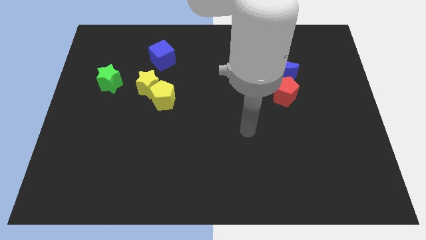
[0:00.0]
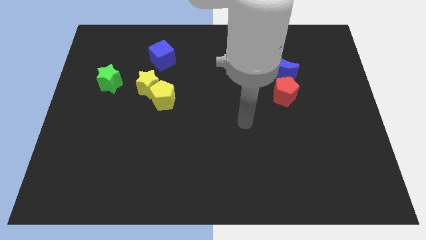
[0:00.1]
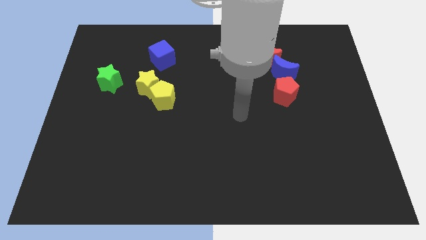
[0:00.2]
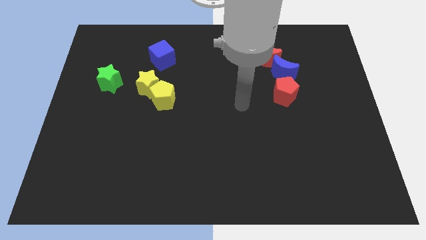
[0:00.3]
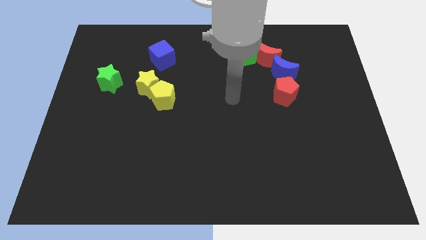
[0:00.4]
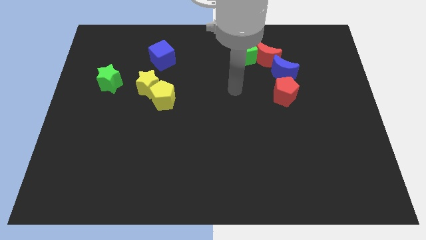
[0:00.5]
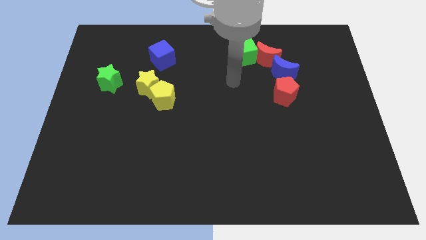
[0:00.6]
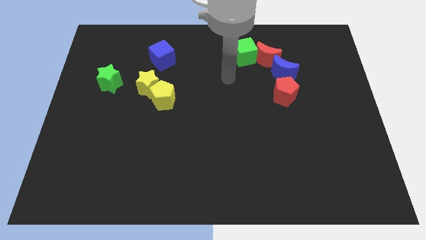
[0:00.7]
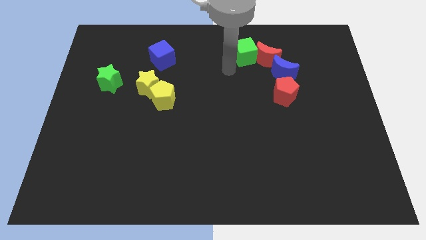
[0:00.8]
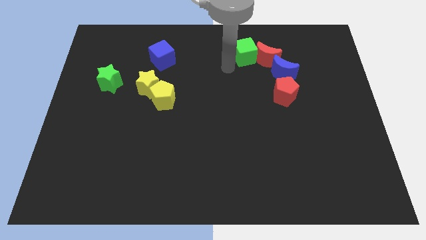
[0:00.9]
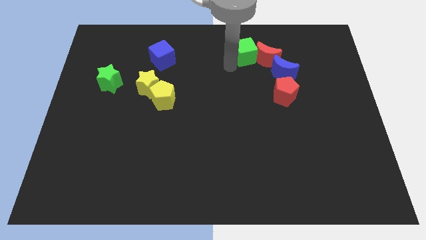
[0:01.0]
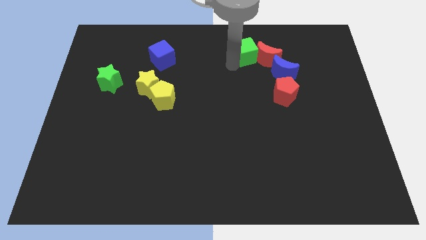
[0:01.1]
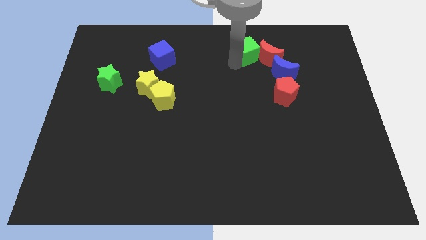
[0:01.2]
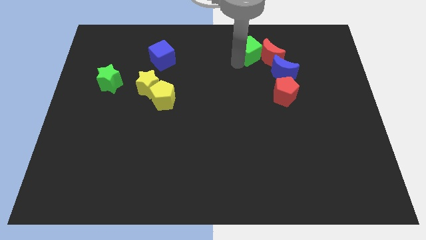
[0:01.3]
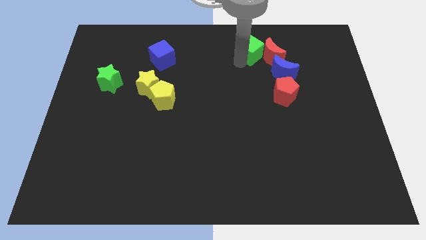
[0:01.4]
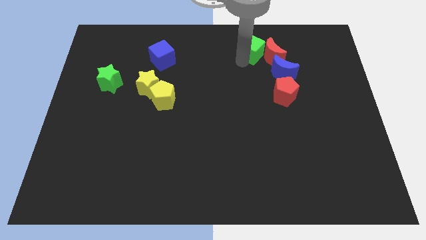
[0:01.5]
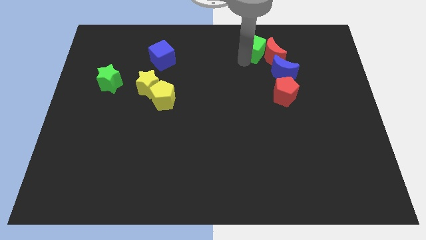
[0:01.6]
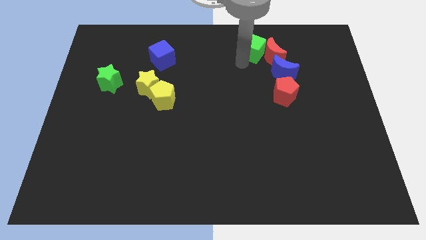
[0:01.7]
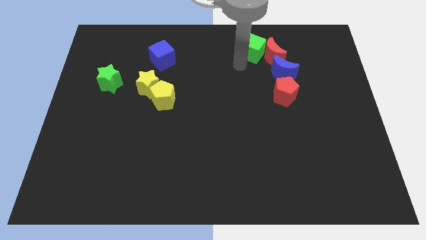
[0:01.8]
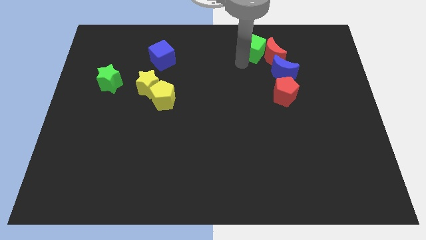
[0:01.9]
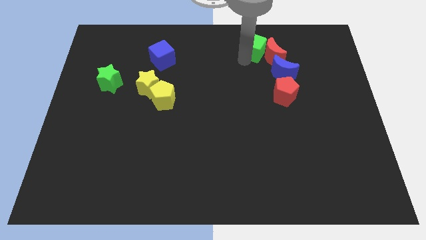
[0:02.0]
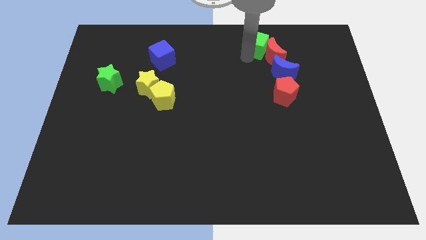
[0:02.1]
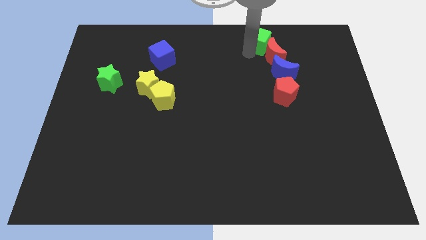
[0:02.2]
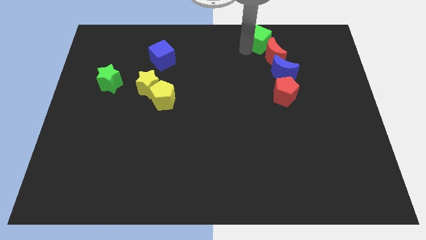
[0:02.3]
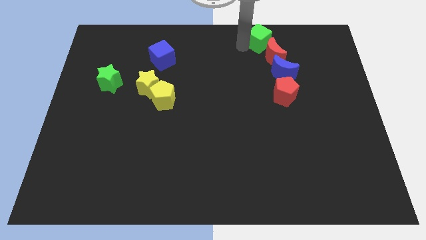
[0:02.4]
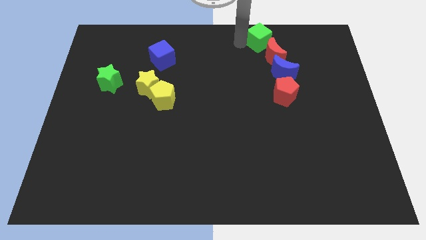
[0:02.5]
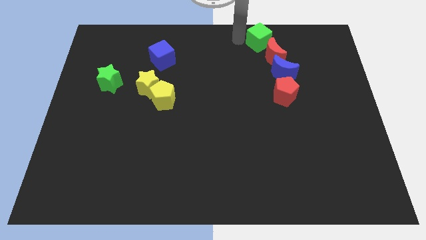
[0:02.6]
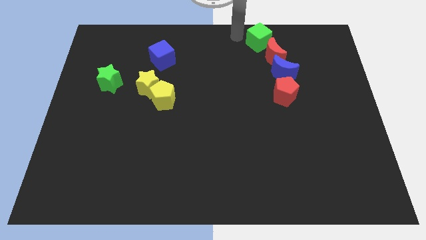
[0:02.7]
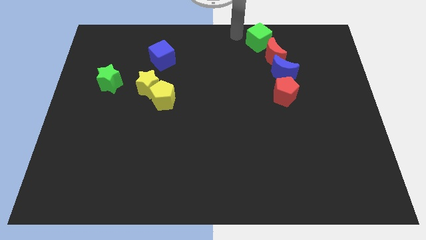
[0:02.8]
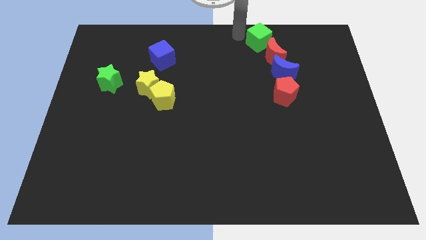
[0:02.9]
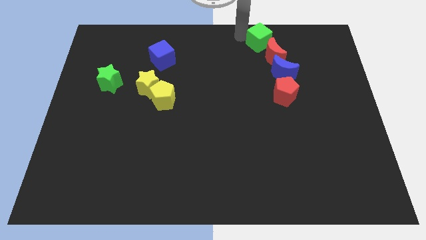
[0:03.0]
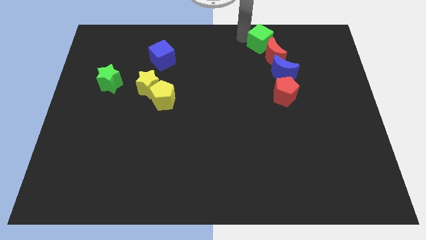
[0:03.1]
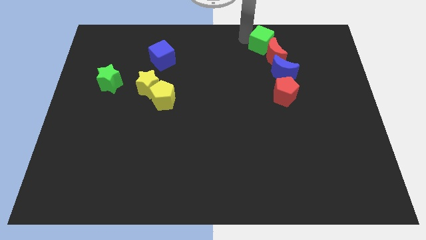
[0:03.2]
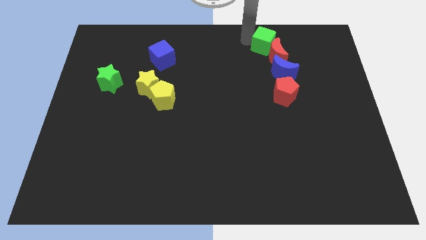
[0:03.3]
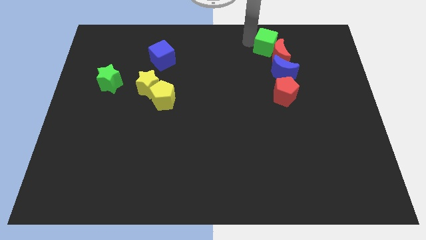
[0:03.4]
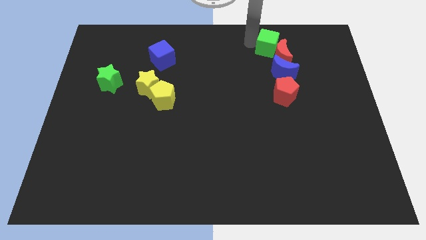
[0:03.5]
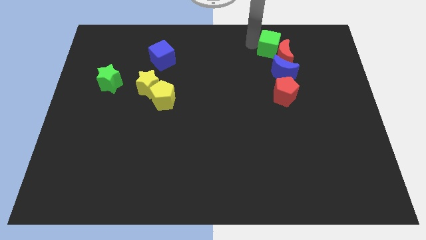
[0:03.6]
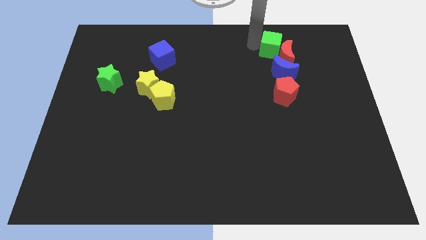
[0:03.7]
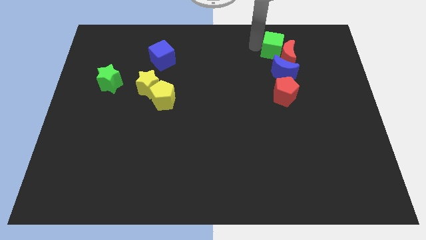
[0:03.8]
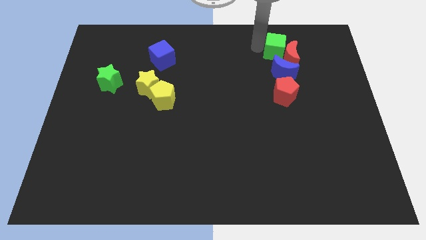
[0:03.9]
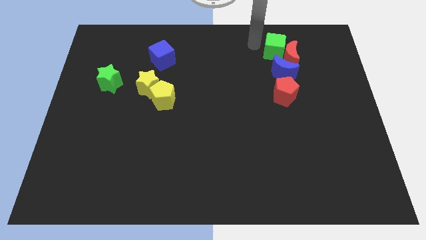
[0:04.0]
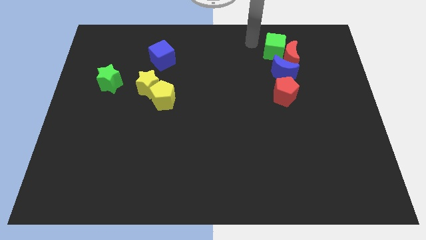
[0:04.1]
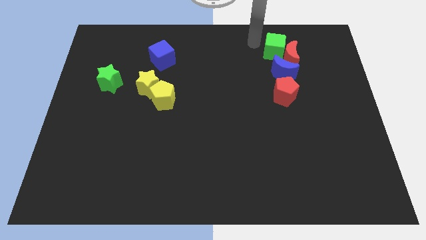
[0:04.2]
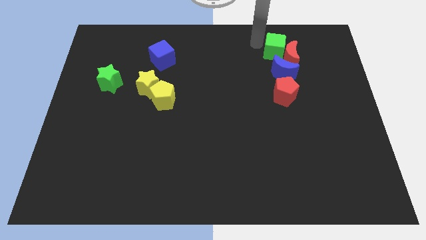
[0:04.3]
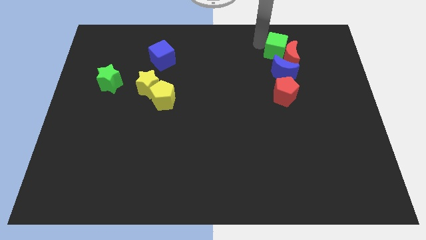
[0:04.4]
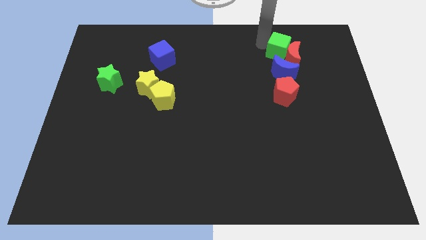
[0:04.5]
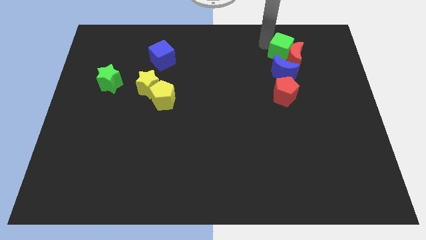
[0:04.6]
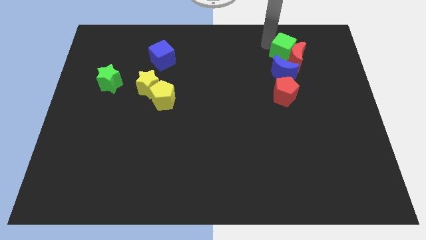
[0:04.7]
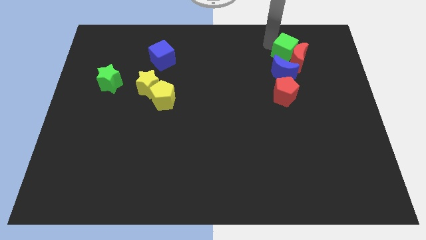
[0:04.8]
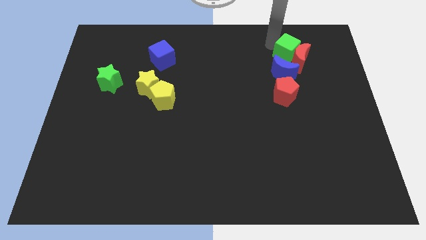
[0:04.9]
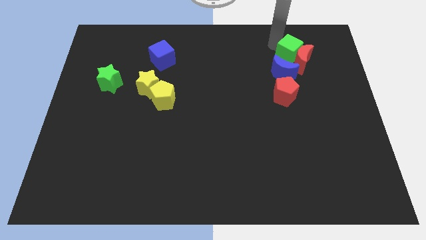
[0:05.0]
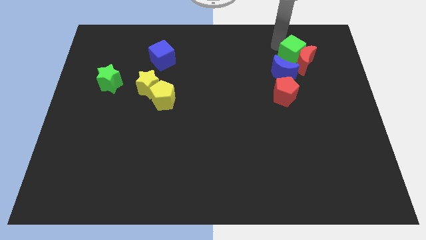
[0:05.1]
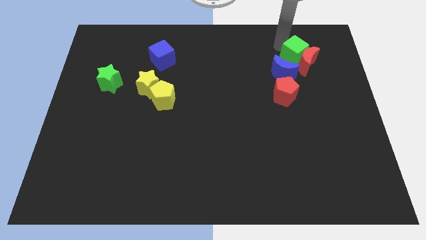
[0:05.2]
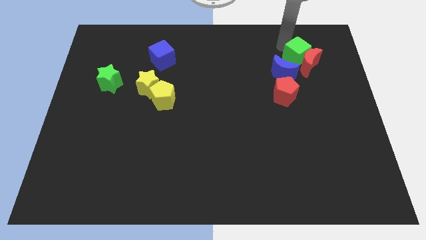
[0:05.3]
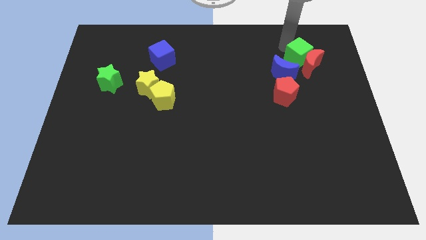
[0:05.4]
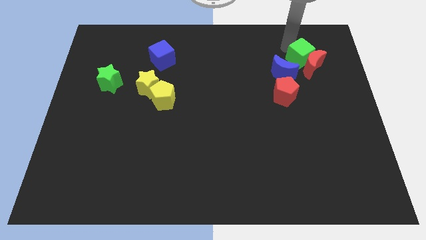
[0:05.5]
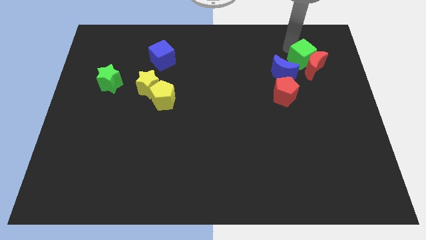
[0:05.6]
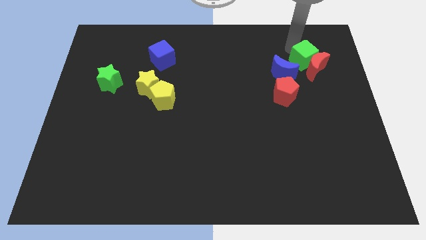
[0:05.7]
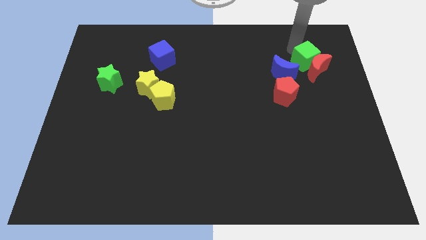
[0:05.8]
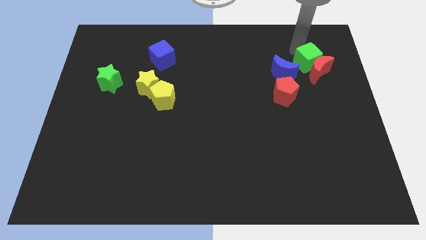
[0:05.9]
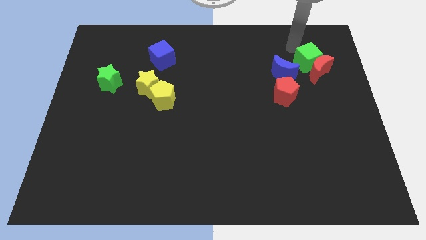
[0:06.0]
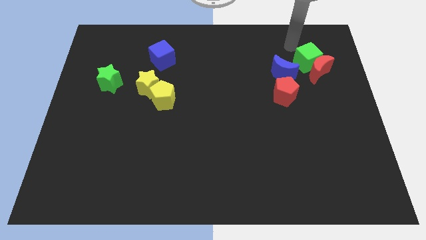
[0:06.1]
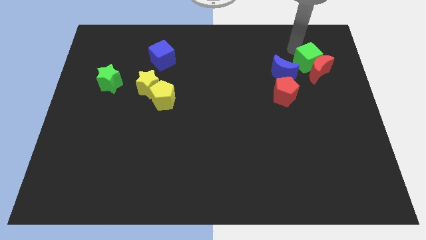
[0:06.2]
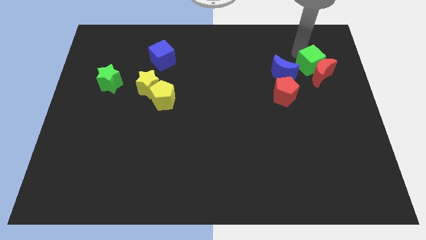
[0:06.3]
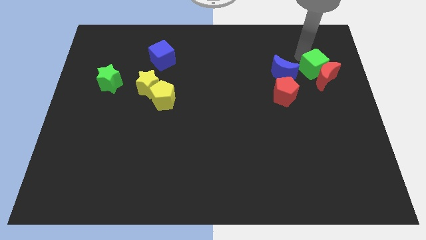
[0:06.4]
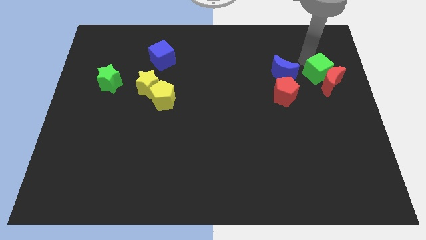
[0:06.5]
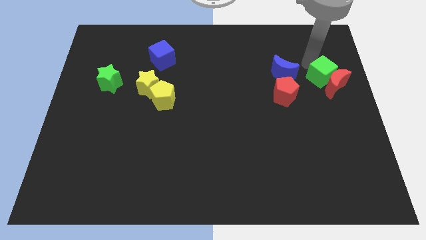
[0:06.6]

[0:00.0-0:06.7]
slide the green cube to the right side of the board

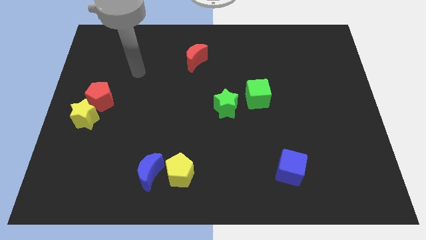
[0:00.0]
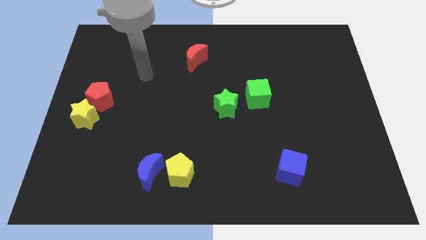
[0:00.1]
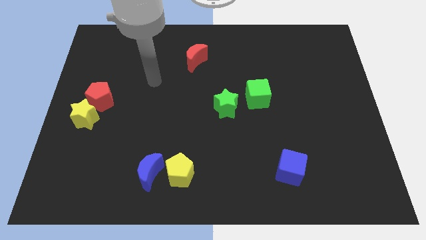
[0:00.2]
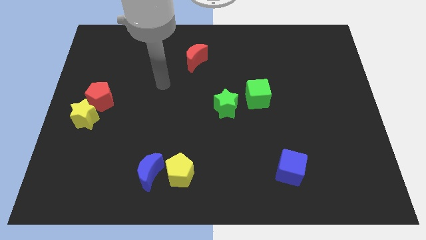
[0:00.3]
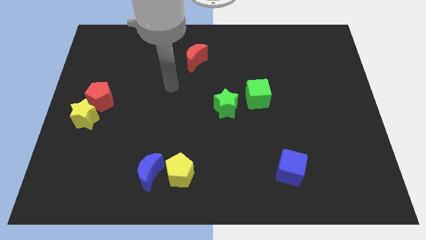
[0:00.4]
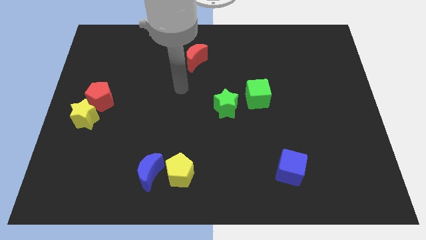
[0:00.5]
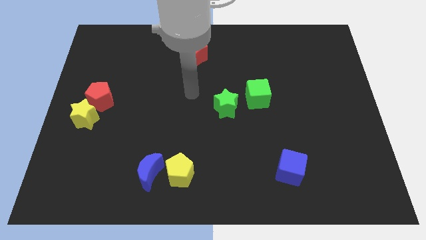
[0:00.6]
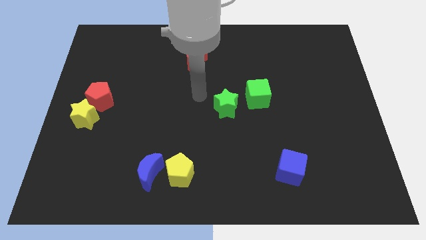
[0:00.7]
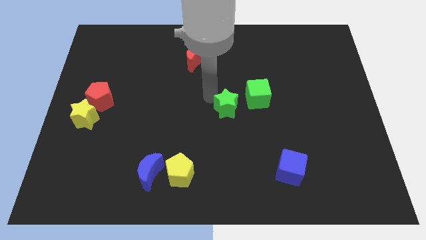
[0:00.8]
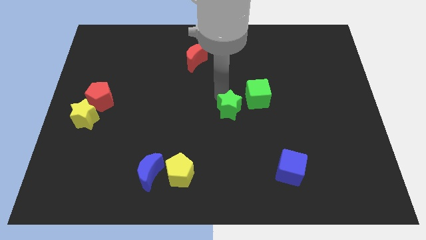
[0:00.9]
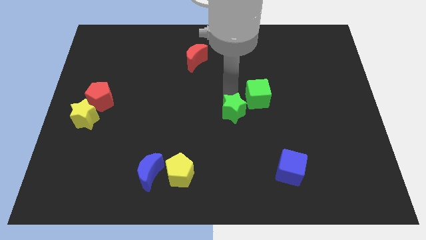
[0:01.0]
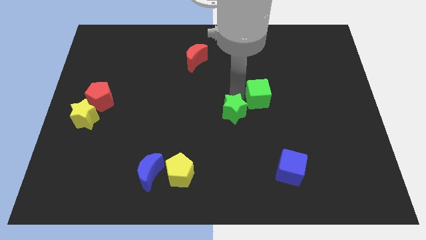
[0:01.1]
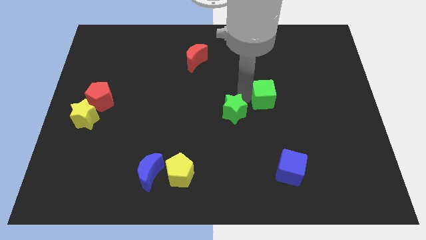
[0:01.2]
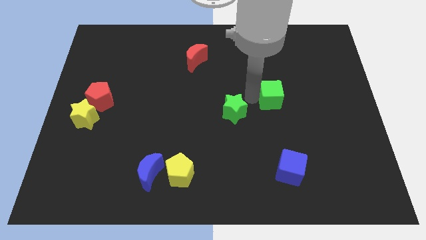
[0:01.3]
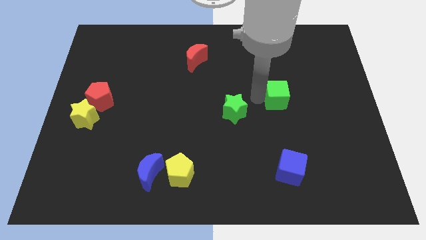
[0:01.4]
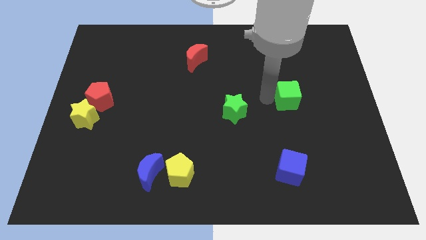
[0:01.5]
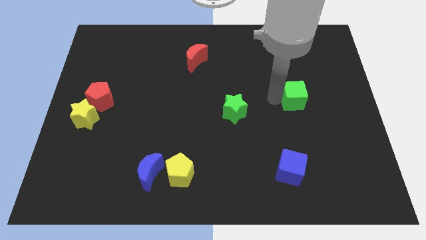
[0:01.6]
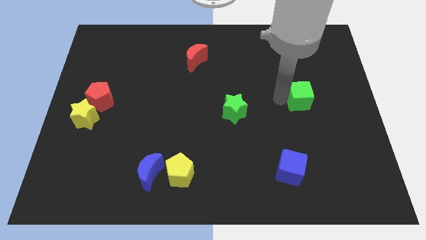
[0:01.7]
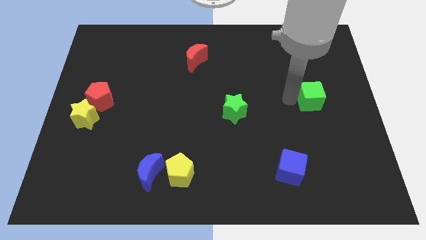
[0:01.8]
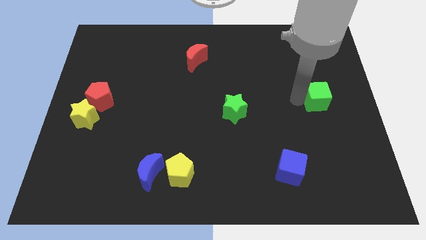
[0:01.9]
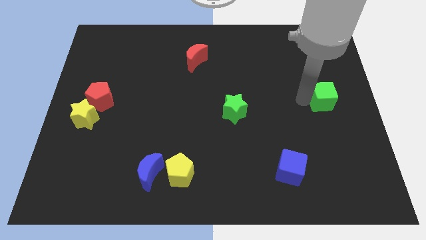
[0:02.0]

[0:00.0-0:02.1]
push the green cube to the center right
